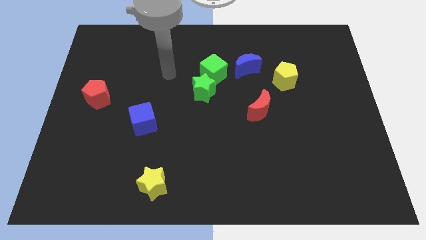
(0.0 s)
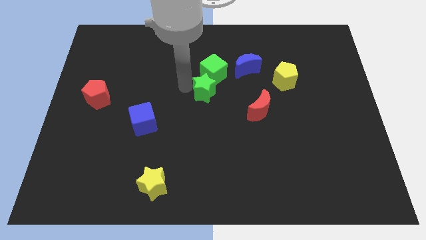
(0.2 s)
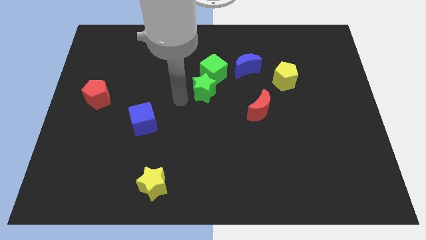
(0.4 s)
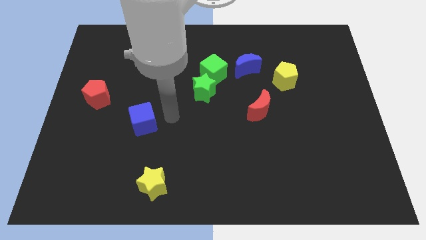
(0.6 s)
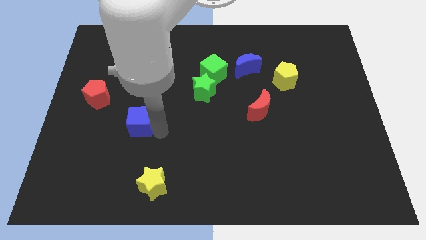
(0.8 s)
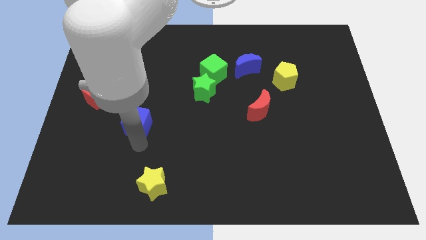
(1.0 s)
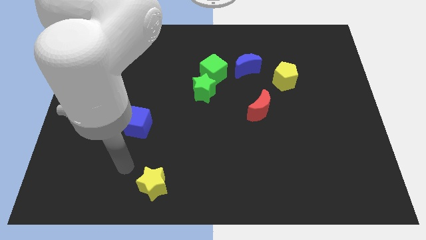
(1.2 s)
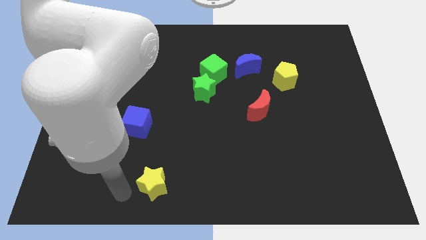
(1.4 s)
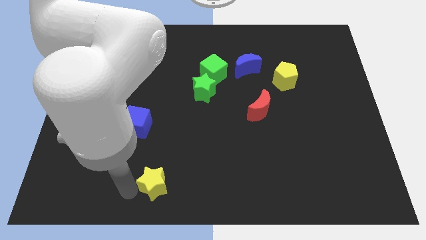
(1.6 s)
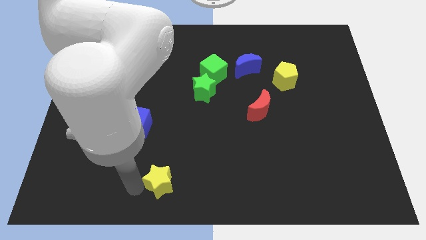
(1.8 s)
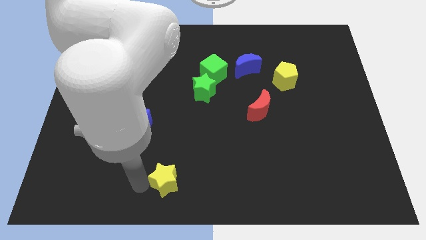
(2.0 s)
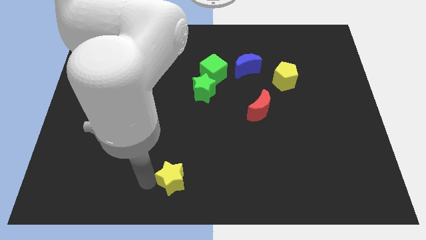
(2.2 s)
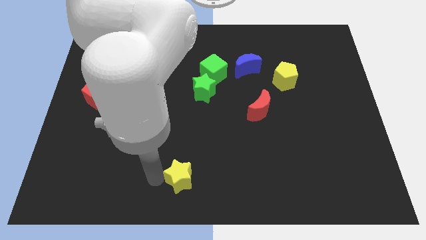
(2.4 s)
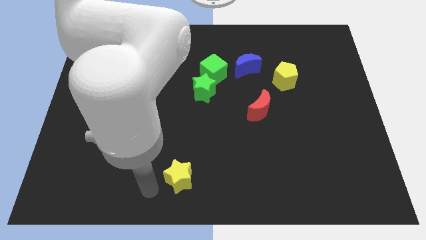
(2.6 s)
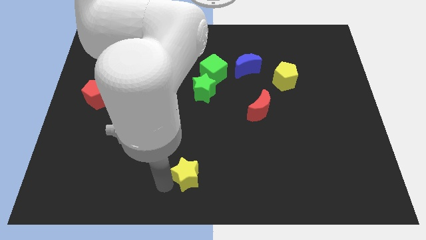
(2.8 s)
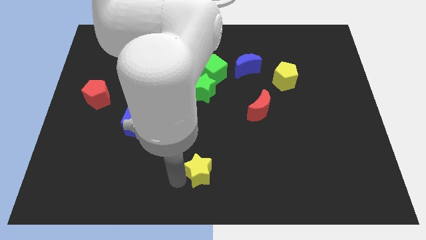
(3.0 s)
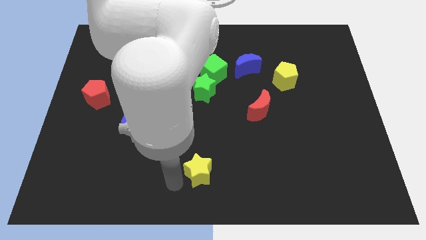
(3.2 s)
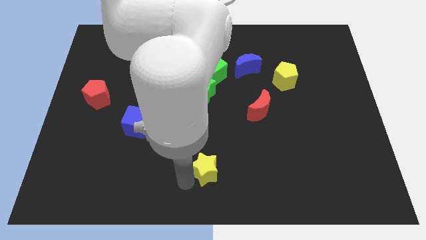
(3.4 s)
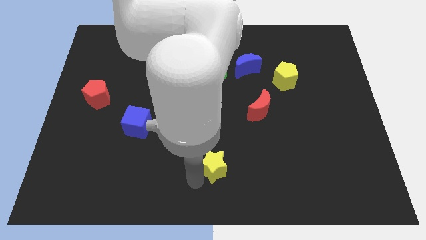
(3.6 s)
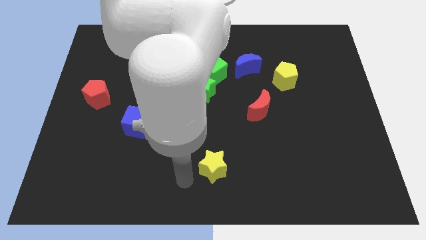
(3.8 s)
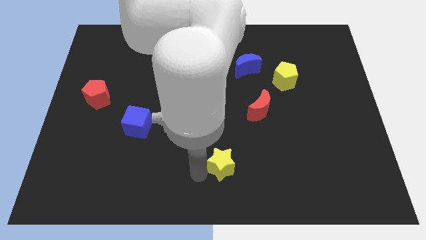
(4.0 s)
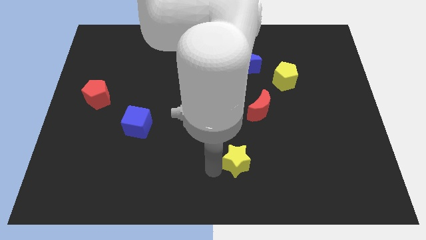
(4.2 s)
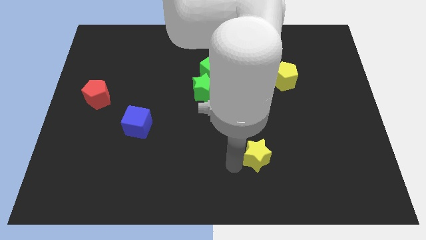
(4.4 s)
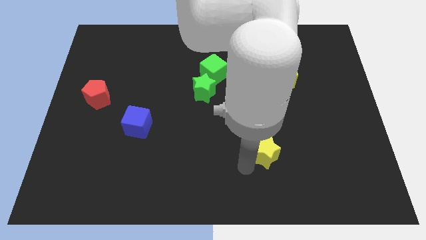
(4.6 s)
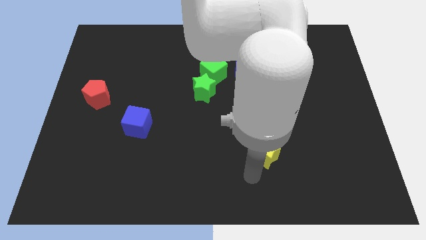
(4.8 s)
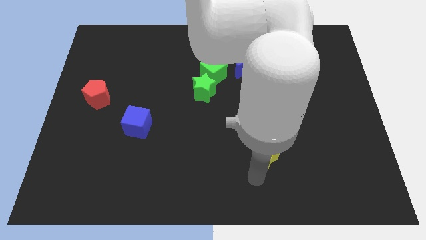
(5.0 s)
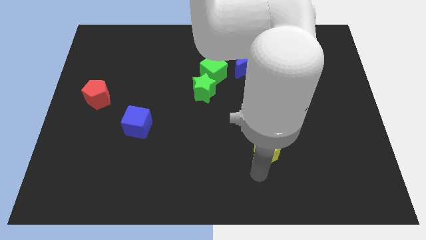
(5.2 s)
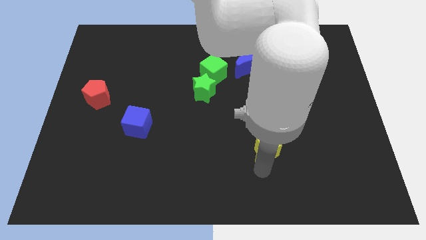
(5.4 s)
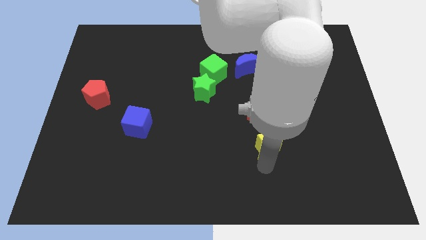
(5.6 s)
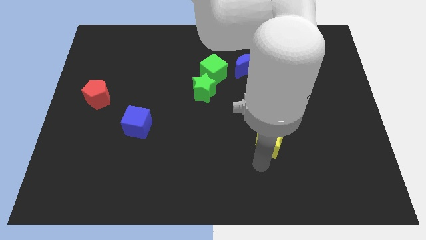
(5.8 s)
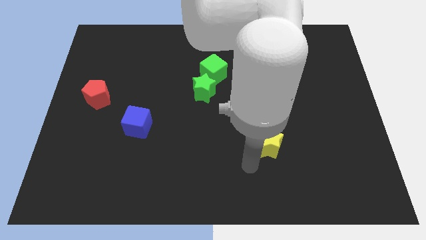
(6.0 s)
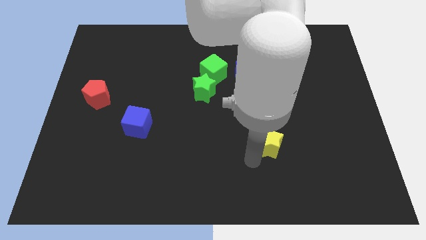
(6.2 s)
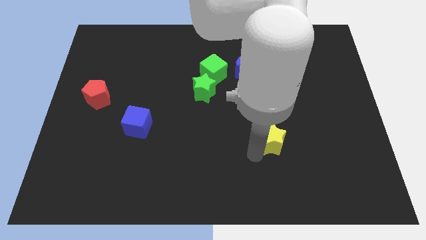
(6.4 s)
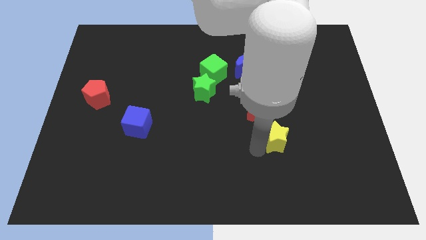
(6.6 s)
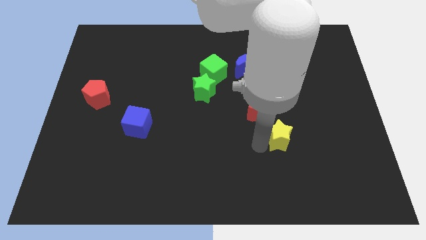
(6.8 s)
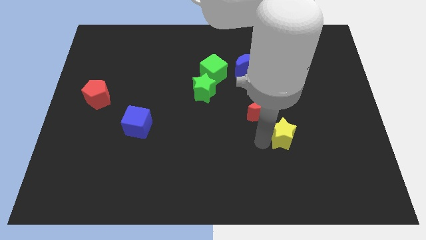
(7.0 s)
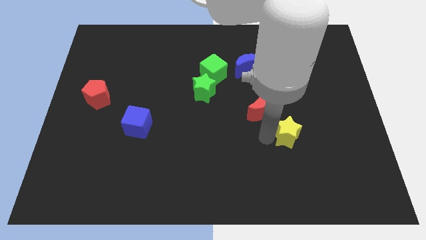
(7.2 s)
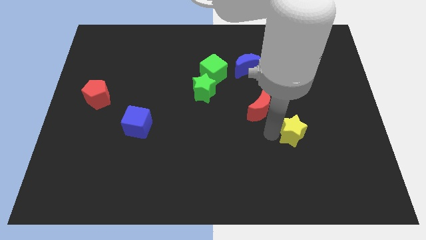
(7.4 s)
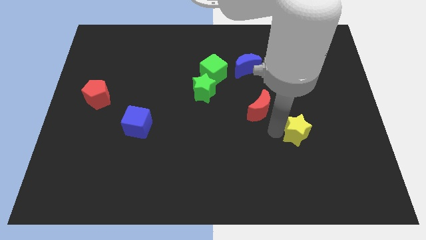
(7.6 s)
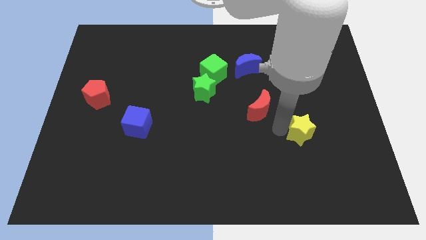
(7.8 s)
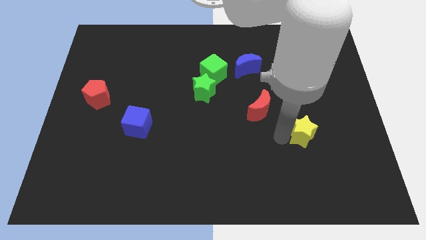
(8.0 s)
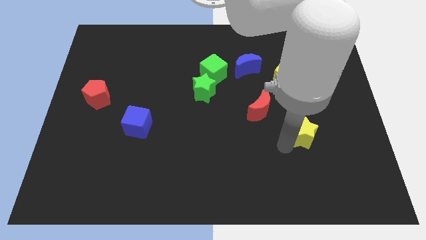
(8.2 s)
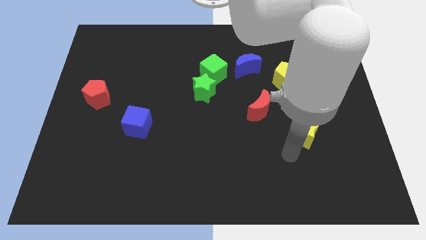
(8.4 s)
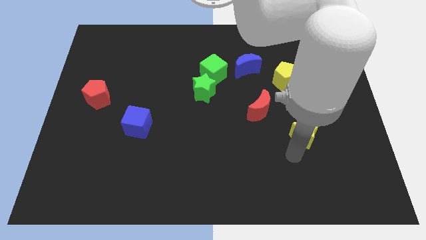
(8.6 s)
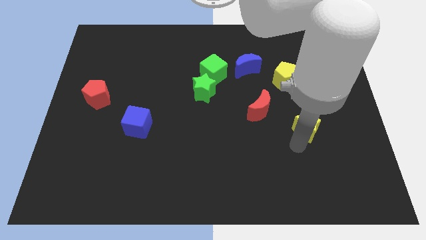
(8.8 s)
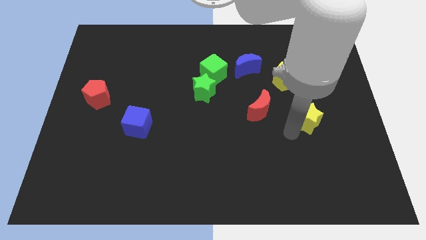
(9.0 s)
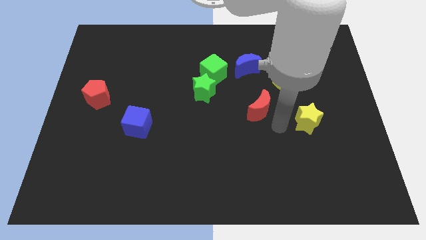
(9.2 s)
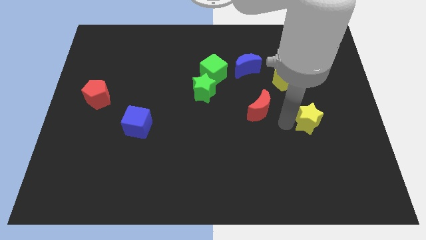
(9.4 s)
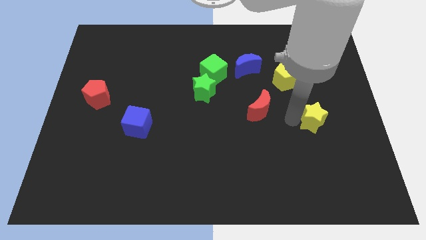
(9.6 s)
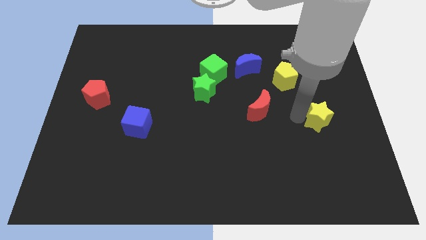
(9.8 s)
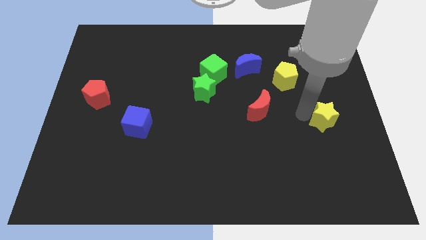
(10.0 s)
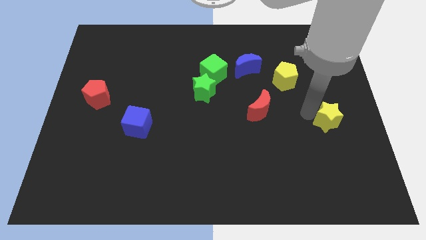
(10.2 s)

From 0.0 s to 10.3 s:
slide the yellow star to the center right

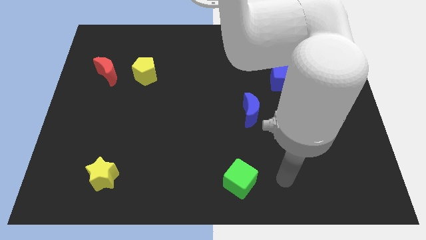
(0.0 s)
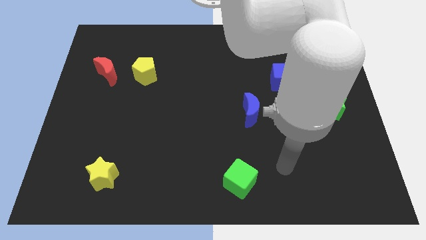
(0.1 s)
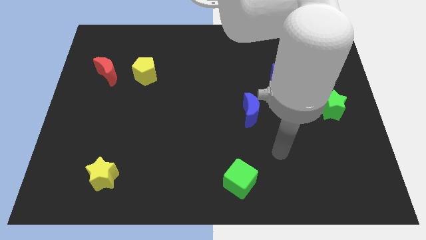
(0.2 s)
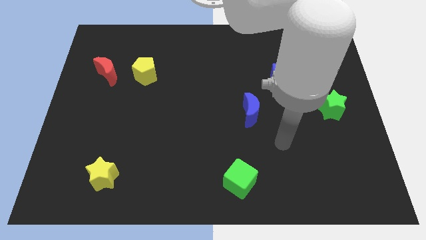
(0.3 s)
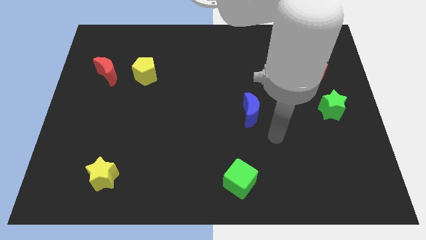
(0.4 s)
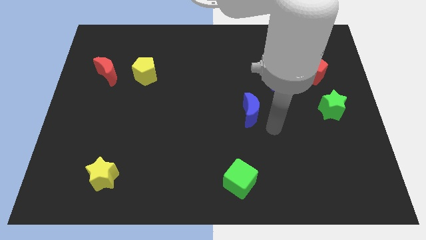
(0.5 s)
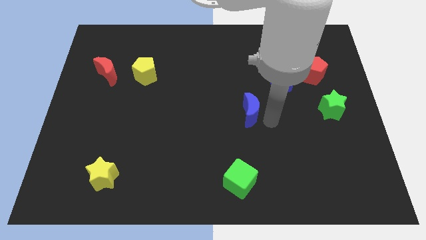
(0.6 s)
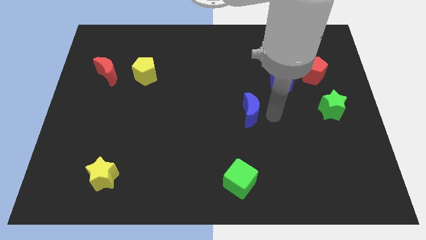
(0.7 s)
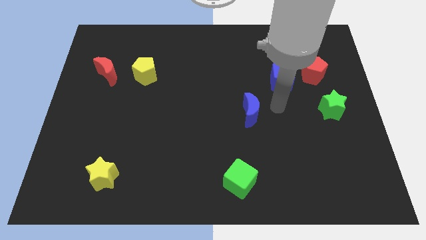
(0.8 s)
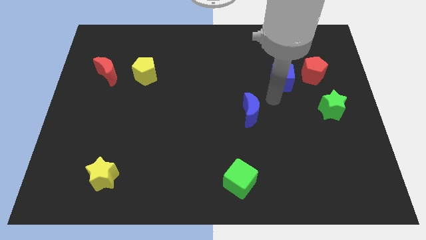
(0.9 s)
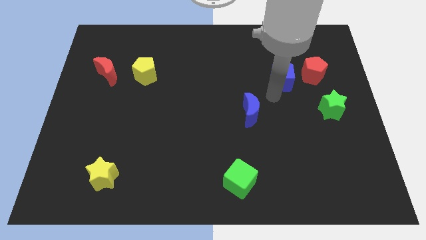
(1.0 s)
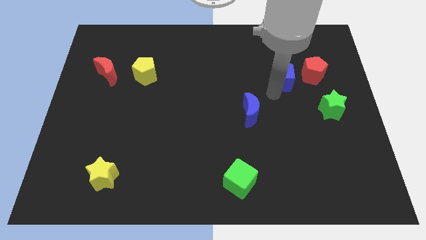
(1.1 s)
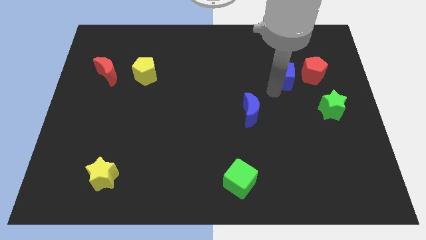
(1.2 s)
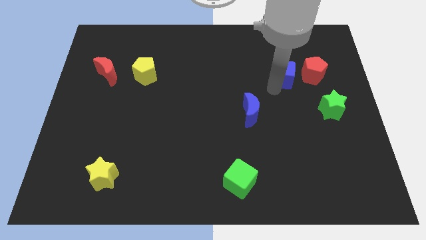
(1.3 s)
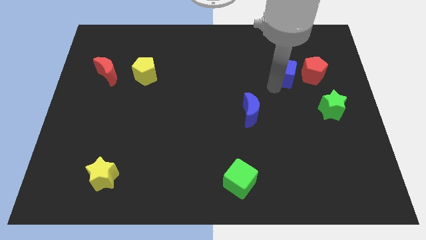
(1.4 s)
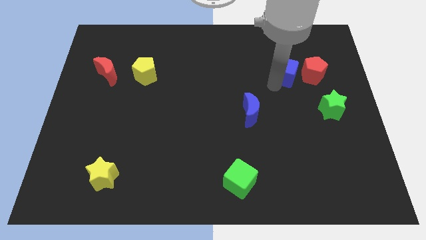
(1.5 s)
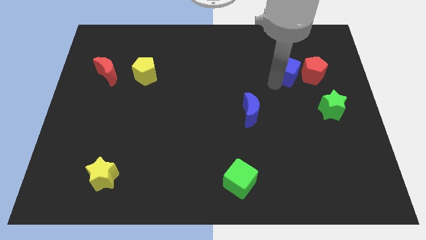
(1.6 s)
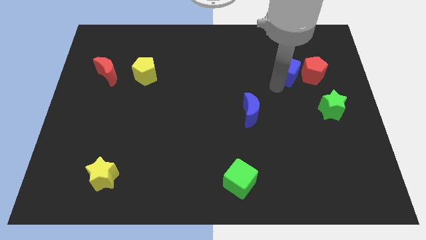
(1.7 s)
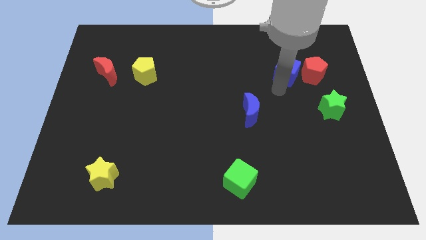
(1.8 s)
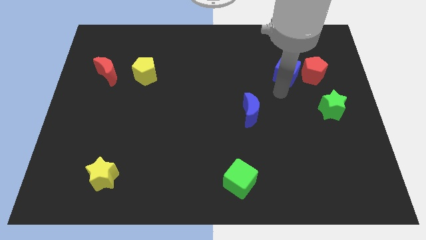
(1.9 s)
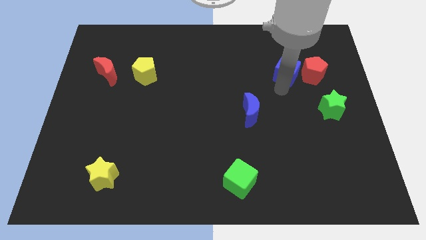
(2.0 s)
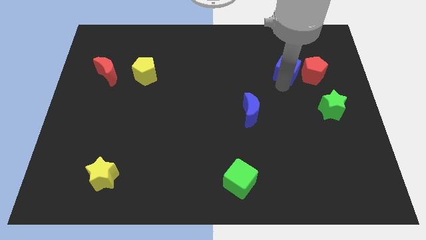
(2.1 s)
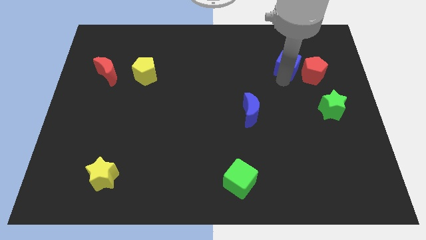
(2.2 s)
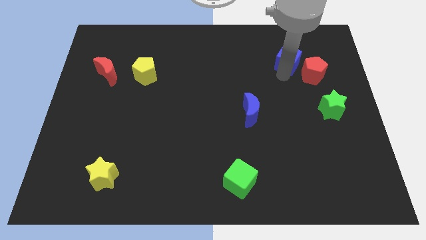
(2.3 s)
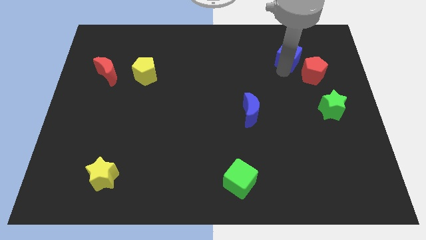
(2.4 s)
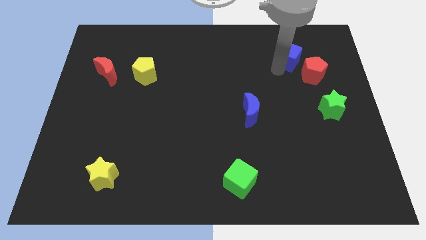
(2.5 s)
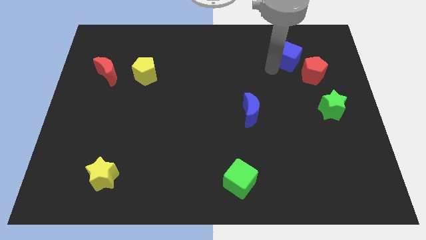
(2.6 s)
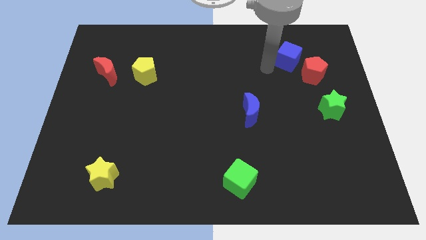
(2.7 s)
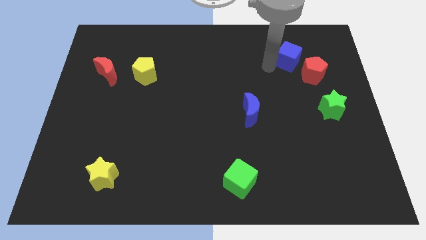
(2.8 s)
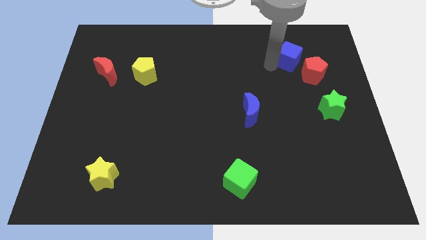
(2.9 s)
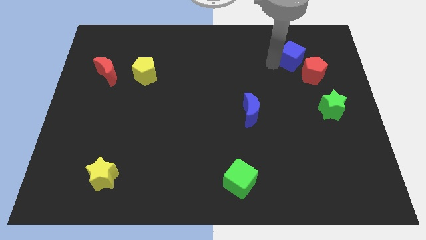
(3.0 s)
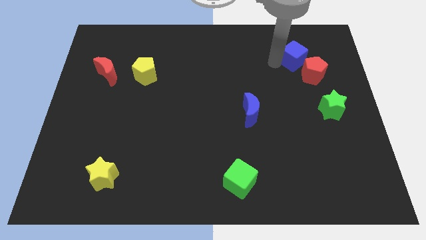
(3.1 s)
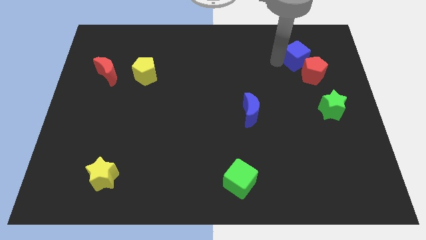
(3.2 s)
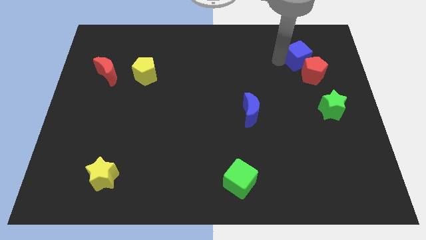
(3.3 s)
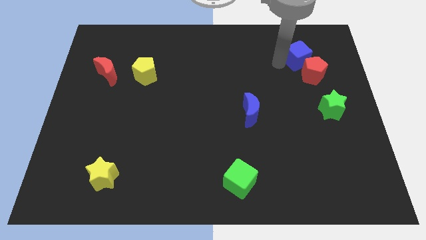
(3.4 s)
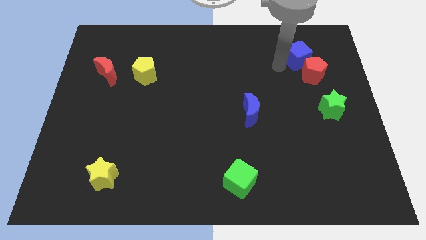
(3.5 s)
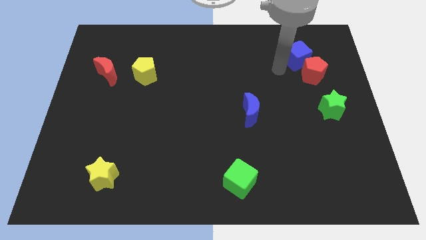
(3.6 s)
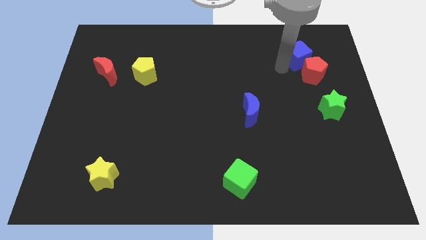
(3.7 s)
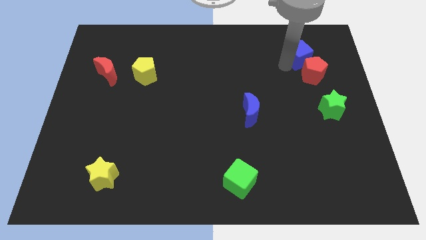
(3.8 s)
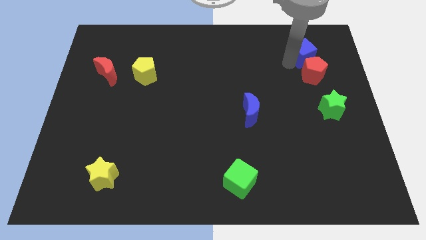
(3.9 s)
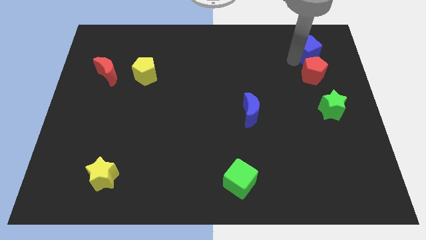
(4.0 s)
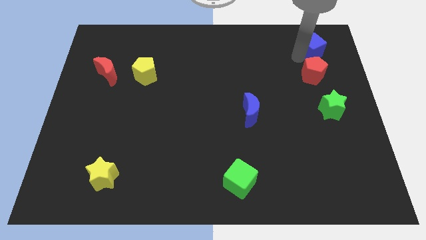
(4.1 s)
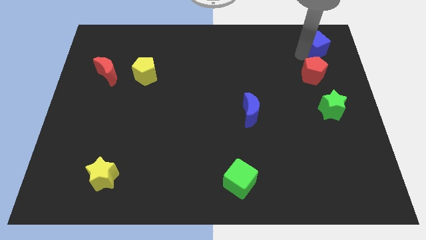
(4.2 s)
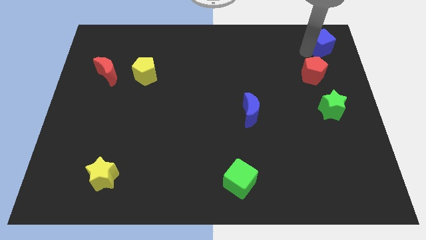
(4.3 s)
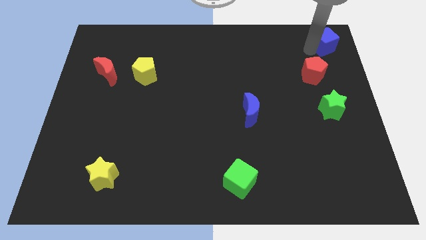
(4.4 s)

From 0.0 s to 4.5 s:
put the blue cube to the upper right corner
